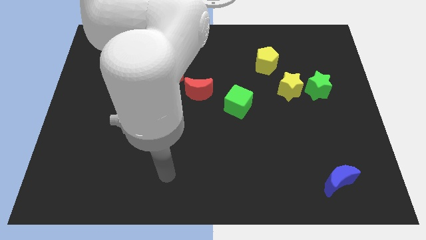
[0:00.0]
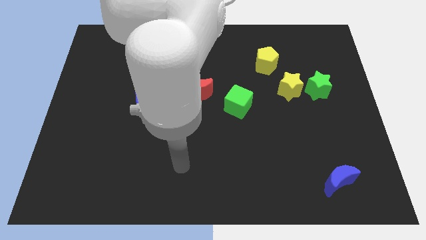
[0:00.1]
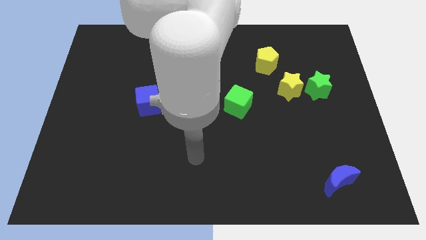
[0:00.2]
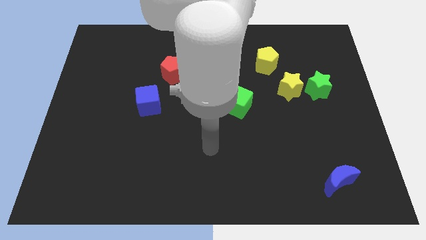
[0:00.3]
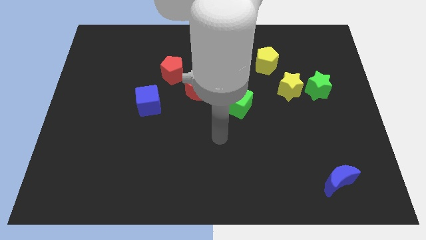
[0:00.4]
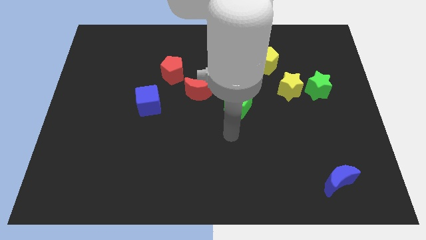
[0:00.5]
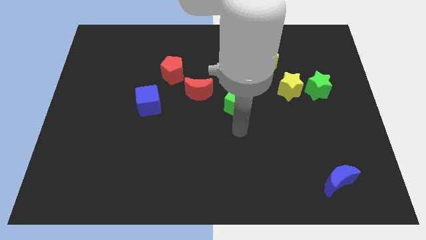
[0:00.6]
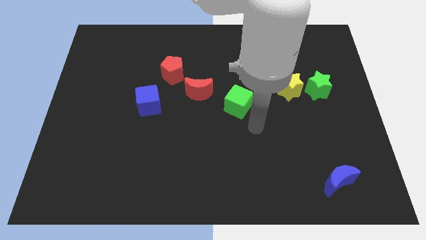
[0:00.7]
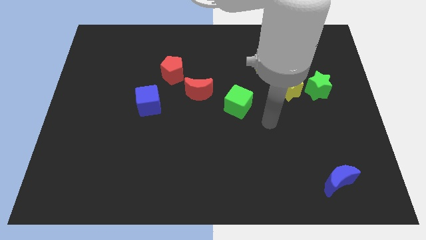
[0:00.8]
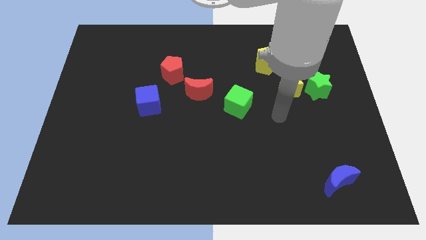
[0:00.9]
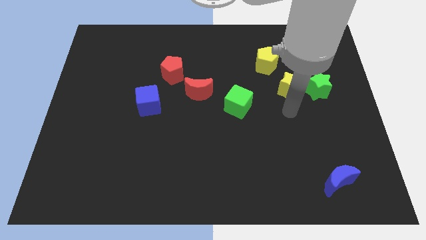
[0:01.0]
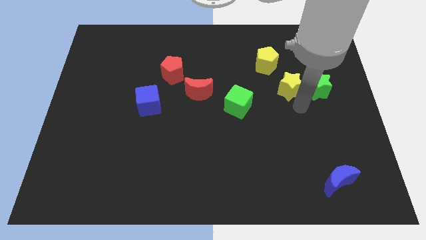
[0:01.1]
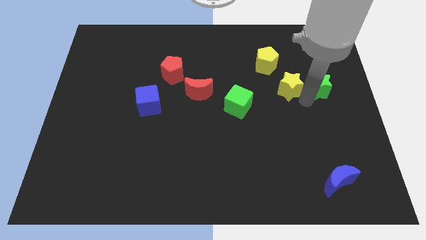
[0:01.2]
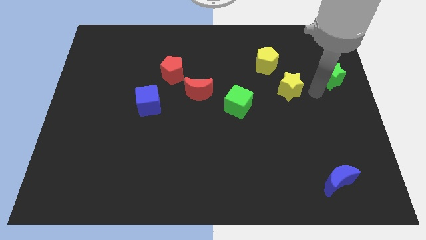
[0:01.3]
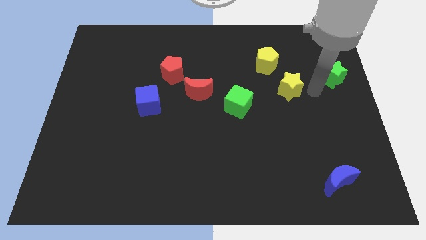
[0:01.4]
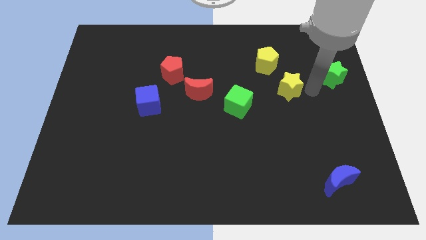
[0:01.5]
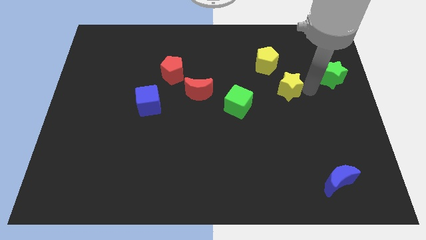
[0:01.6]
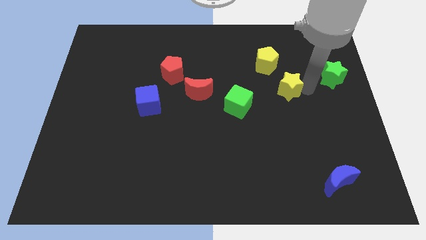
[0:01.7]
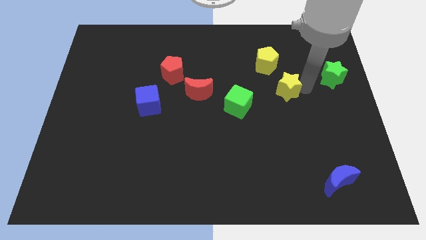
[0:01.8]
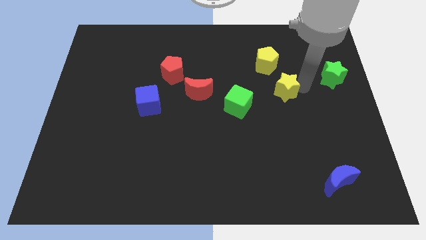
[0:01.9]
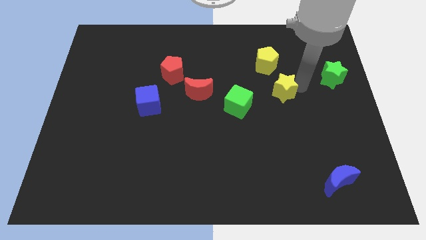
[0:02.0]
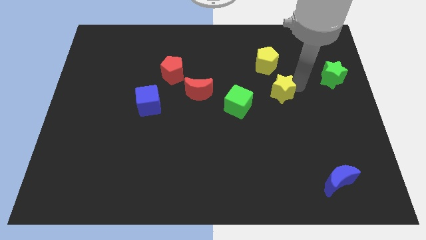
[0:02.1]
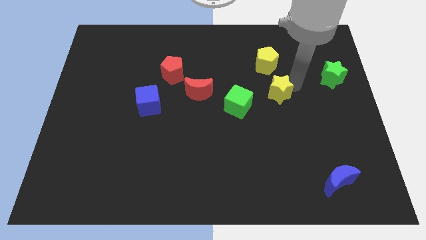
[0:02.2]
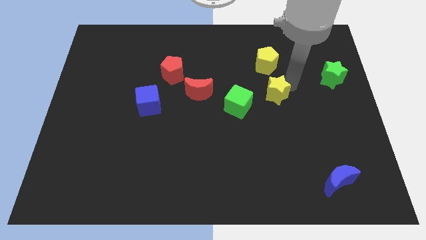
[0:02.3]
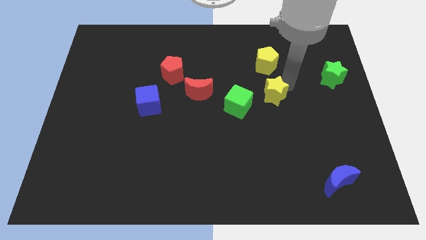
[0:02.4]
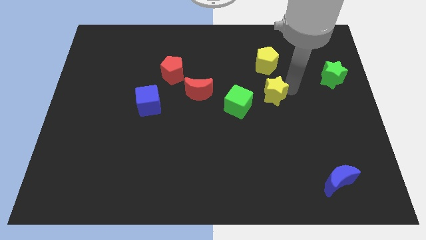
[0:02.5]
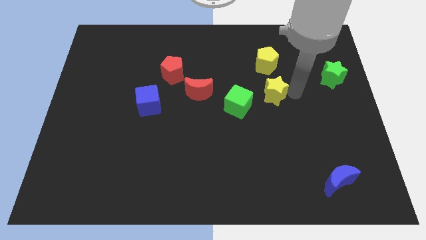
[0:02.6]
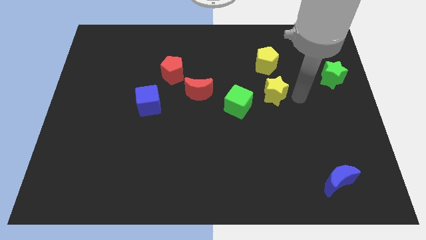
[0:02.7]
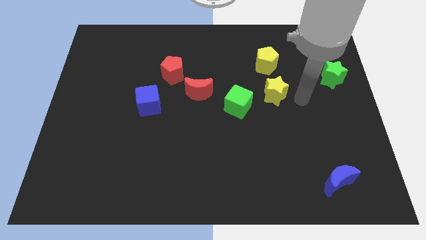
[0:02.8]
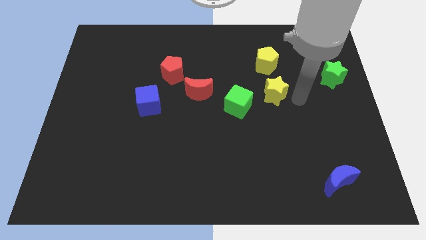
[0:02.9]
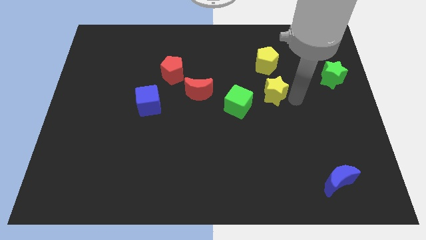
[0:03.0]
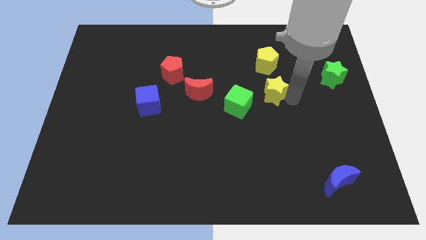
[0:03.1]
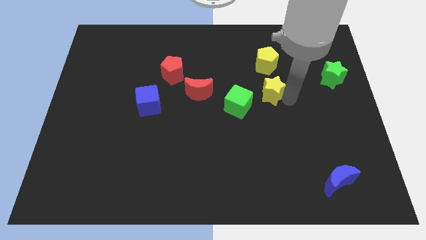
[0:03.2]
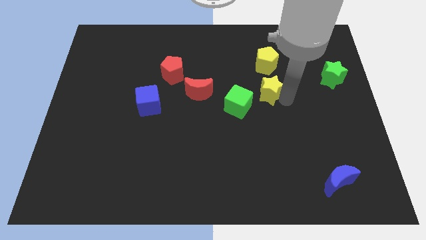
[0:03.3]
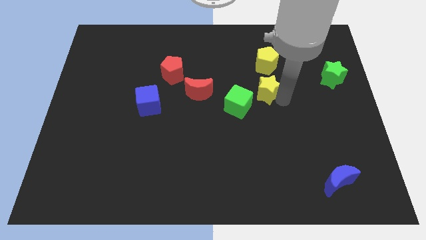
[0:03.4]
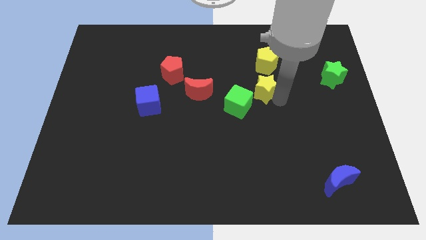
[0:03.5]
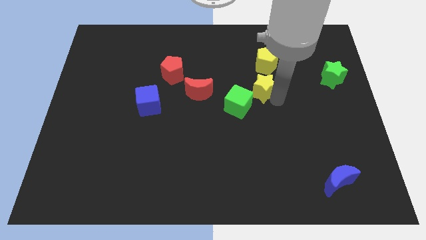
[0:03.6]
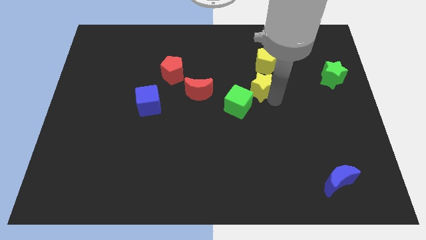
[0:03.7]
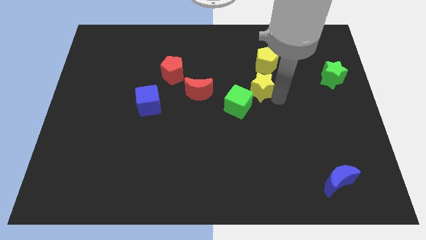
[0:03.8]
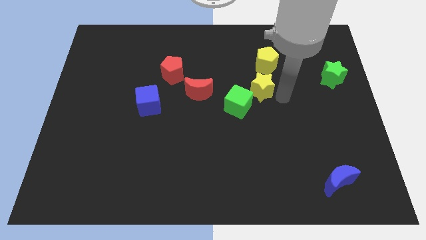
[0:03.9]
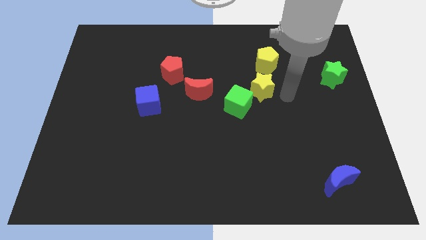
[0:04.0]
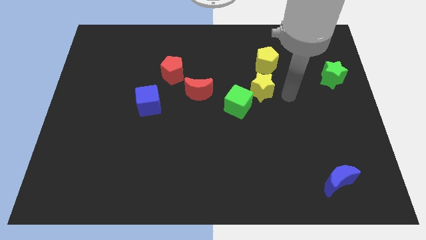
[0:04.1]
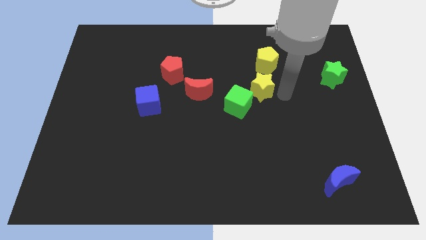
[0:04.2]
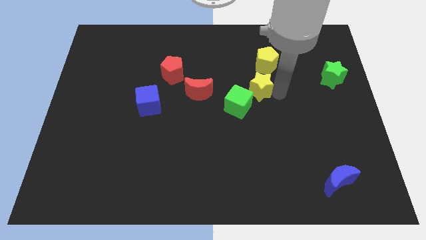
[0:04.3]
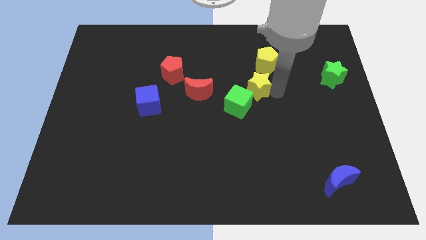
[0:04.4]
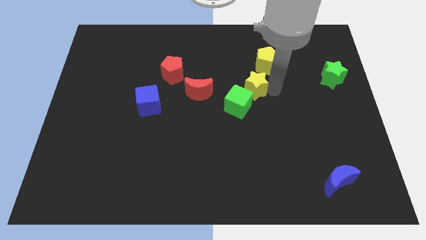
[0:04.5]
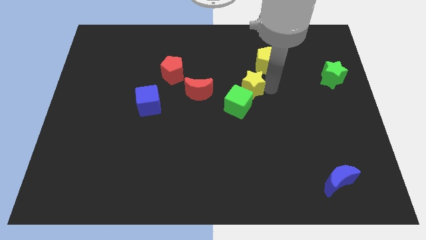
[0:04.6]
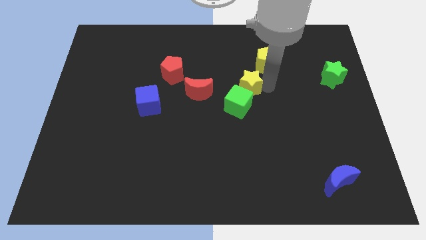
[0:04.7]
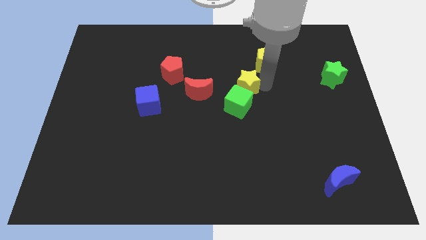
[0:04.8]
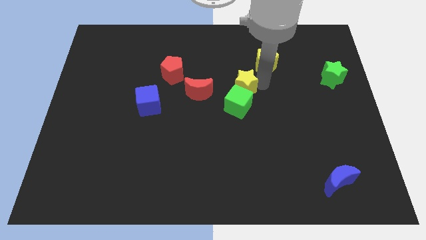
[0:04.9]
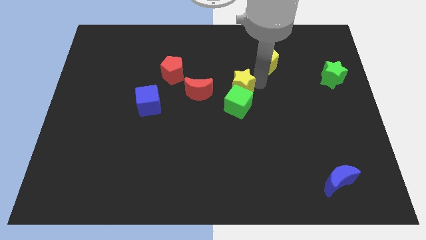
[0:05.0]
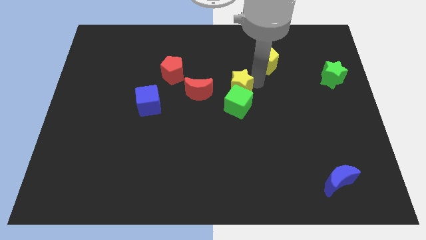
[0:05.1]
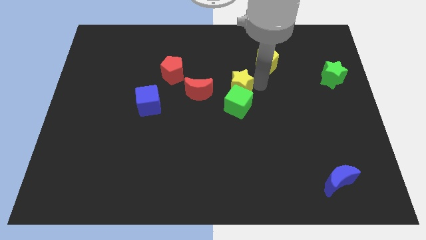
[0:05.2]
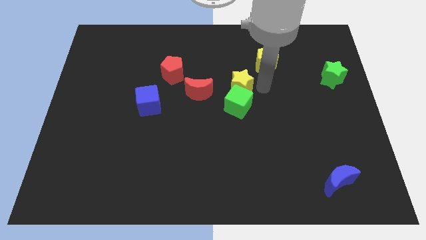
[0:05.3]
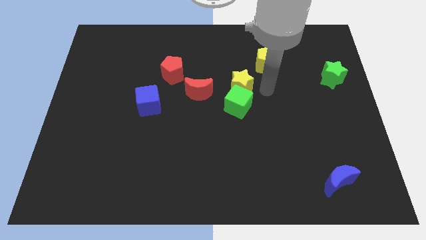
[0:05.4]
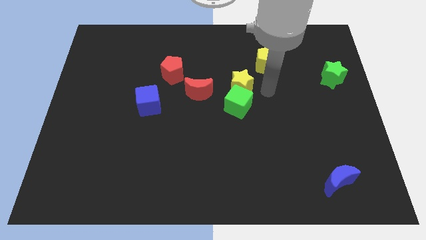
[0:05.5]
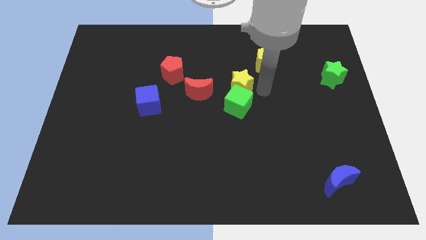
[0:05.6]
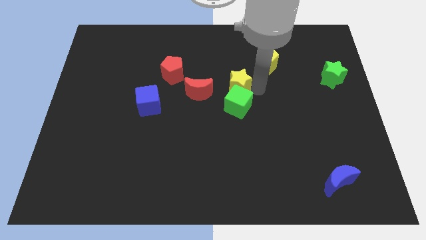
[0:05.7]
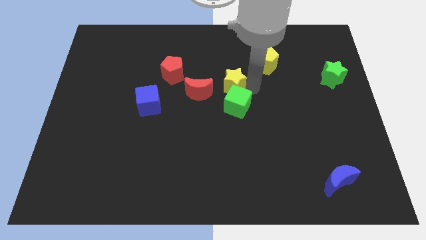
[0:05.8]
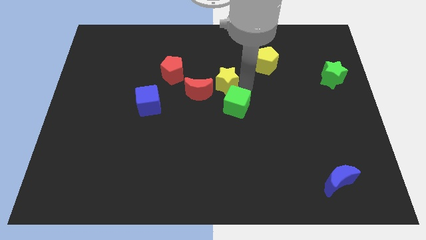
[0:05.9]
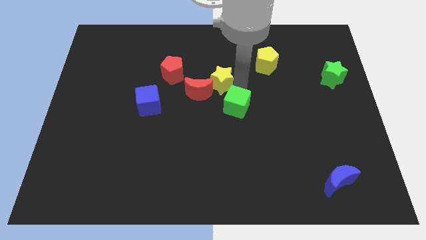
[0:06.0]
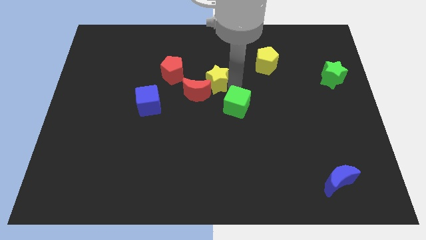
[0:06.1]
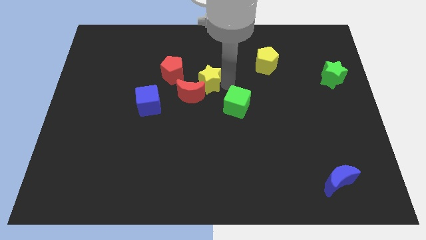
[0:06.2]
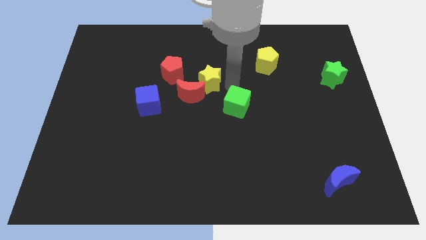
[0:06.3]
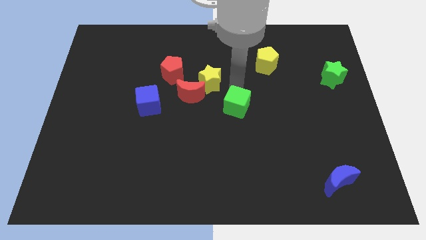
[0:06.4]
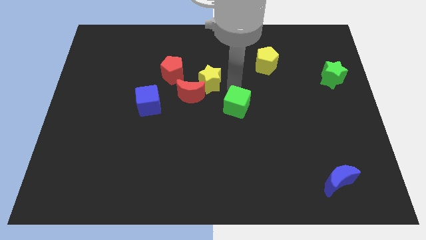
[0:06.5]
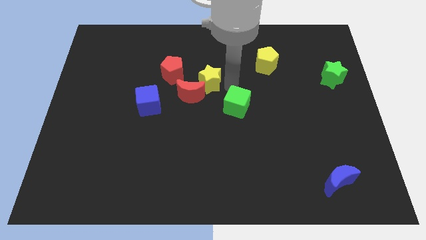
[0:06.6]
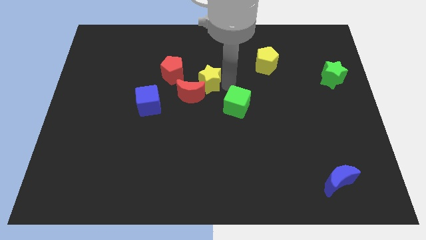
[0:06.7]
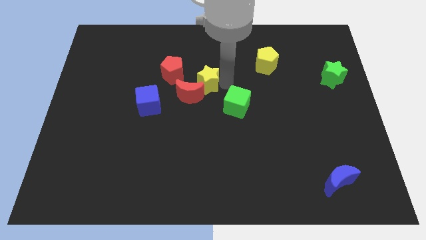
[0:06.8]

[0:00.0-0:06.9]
slide the yellow star left

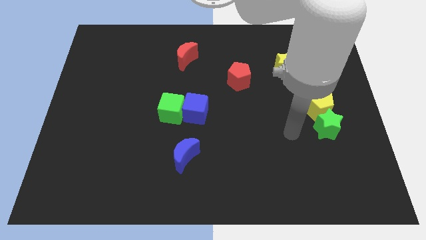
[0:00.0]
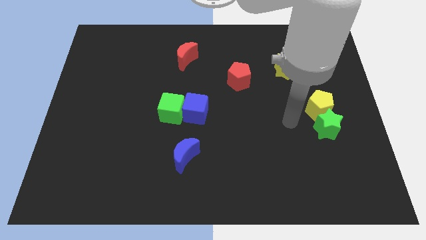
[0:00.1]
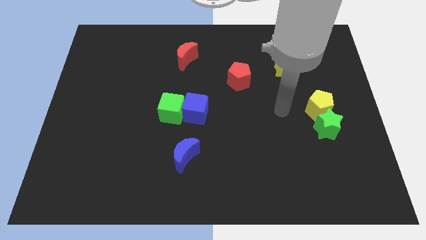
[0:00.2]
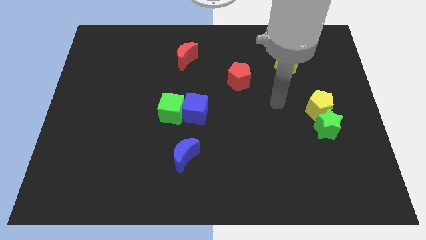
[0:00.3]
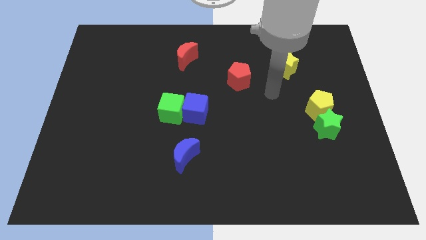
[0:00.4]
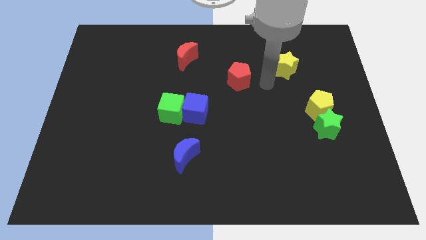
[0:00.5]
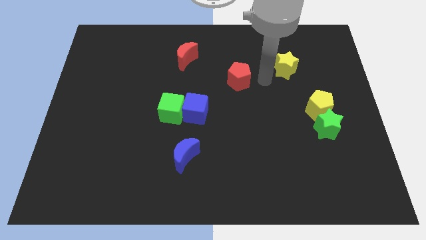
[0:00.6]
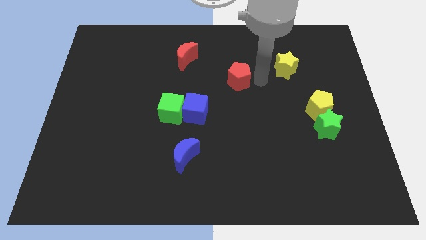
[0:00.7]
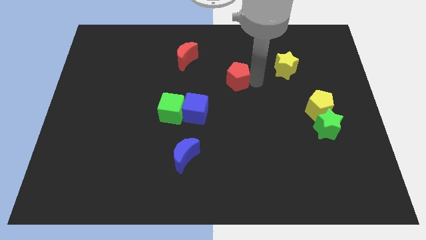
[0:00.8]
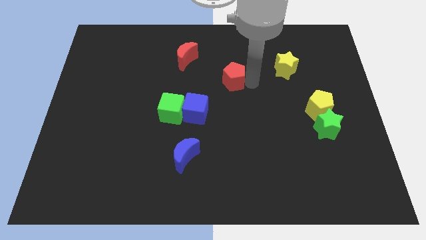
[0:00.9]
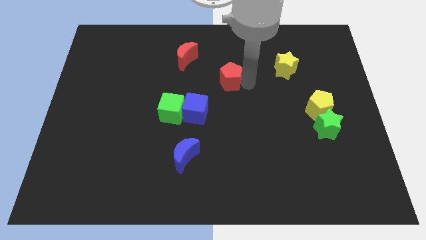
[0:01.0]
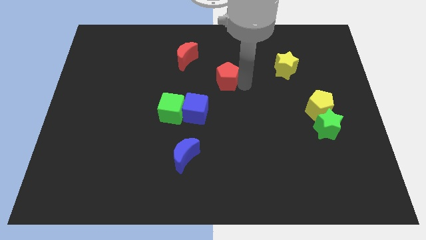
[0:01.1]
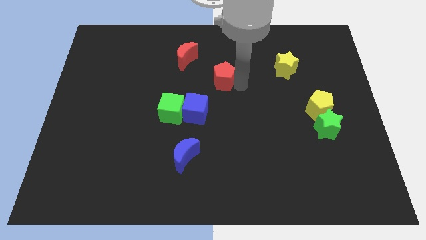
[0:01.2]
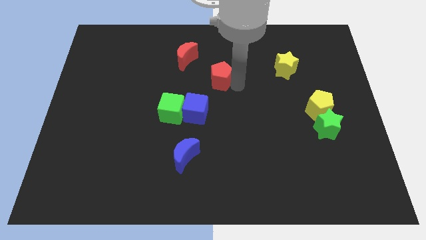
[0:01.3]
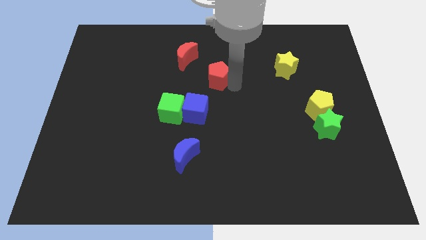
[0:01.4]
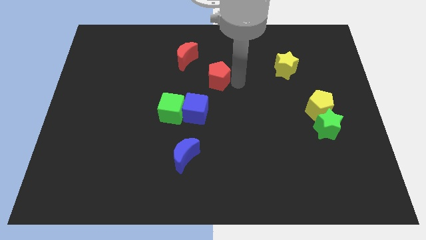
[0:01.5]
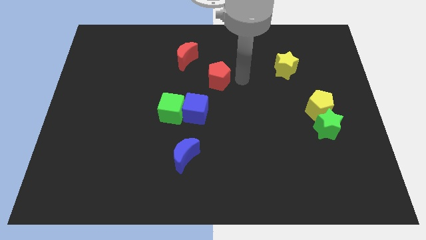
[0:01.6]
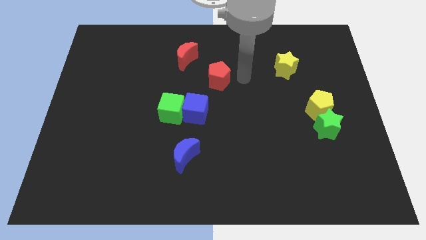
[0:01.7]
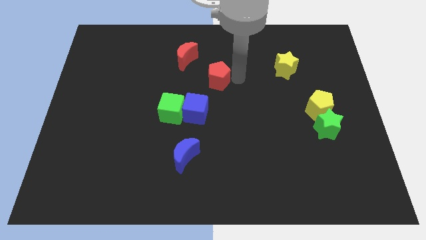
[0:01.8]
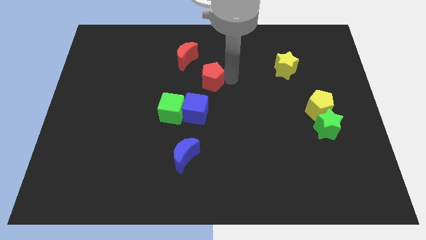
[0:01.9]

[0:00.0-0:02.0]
slightly push the red pentagon left
